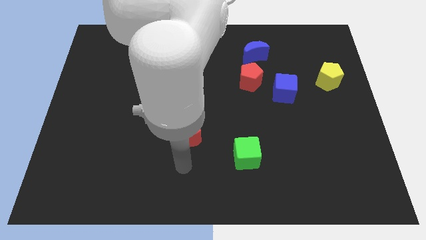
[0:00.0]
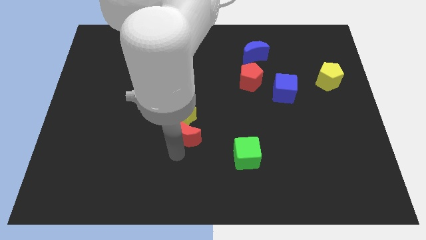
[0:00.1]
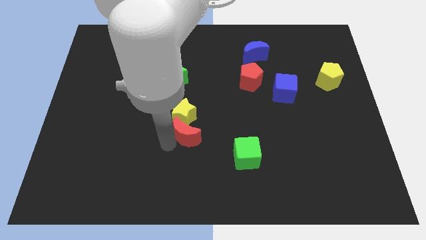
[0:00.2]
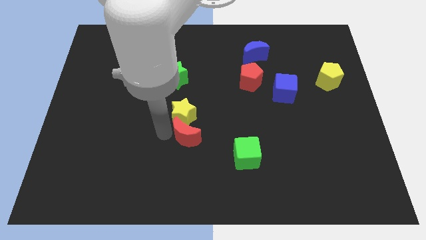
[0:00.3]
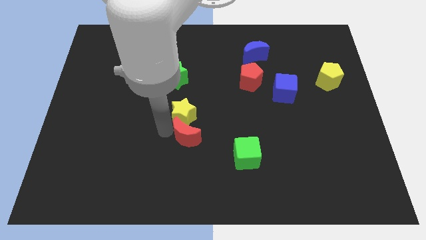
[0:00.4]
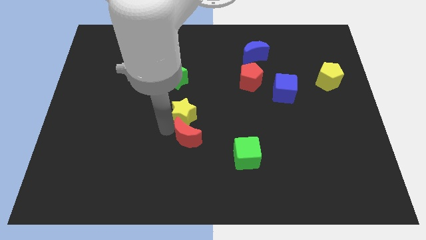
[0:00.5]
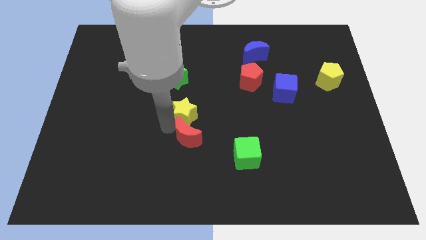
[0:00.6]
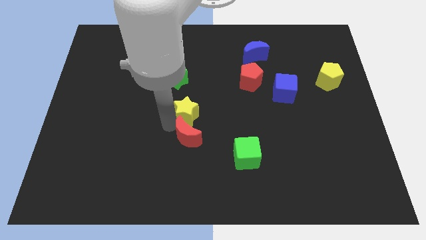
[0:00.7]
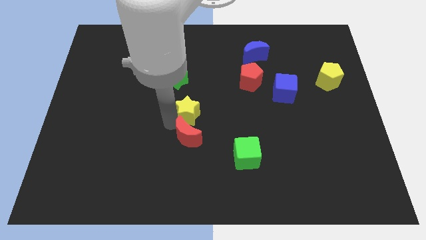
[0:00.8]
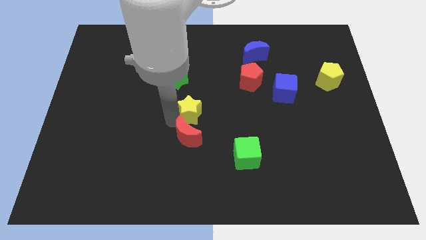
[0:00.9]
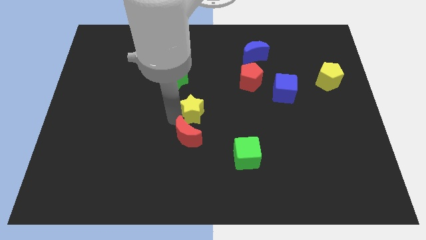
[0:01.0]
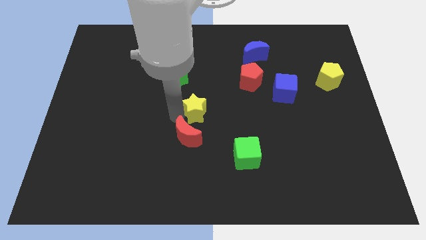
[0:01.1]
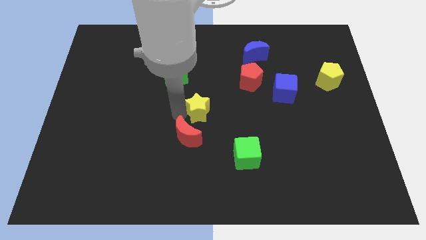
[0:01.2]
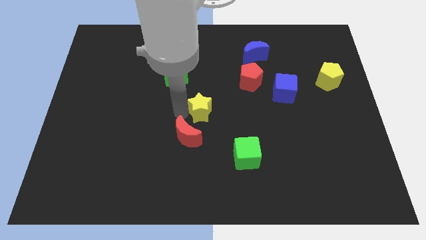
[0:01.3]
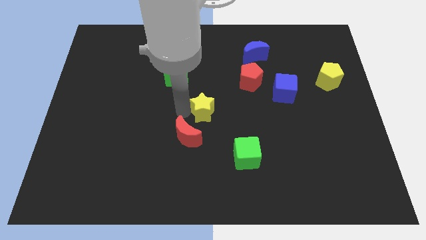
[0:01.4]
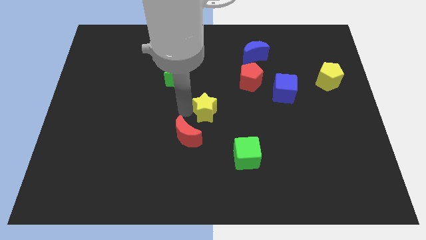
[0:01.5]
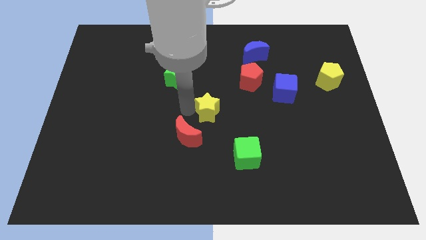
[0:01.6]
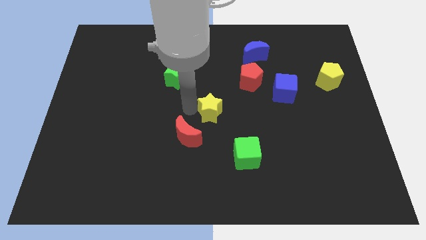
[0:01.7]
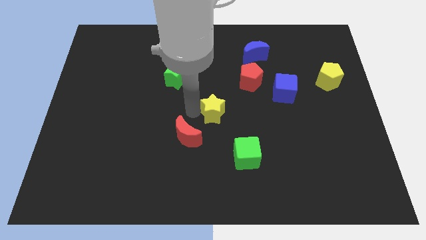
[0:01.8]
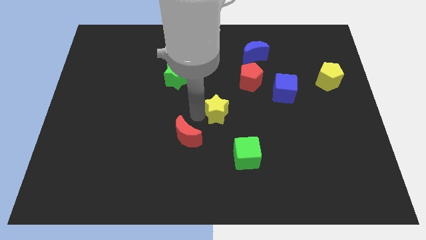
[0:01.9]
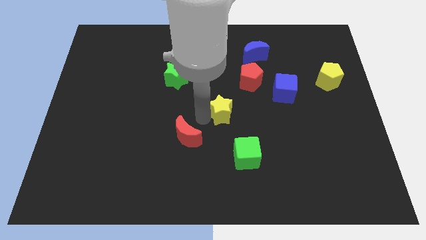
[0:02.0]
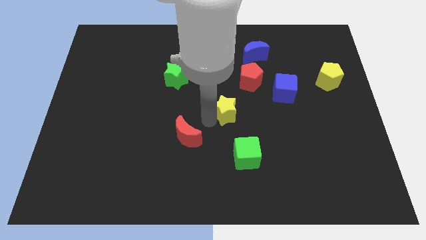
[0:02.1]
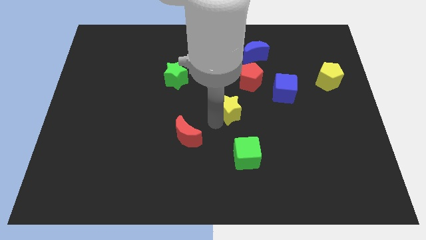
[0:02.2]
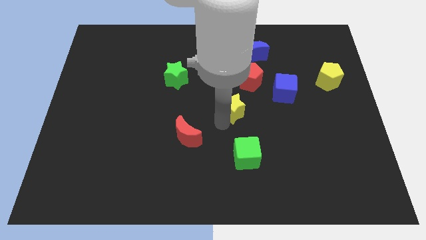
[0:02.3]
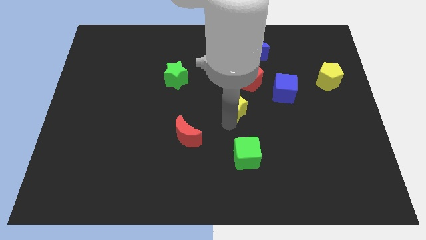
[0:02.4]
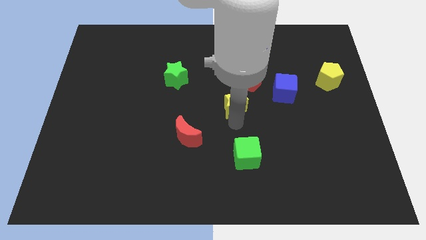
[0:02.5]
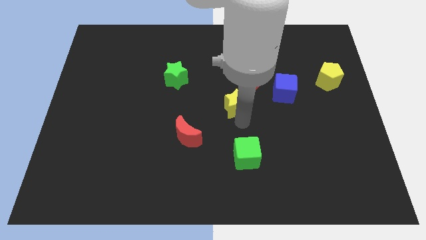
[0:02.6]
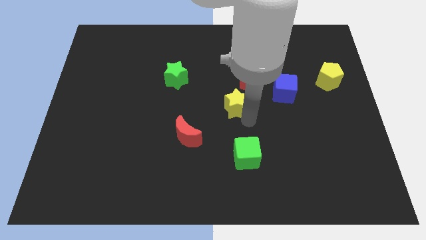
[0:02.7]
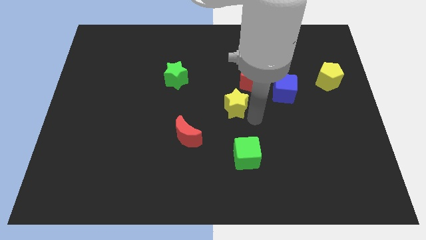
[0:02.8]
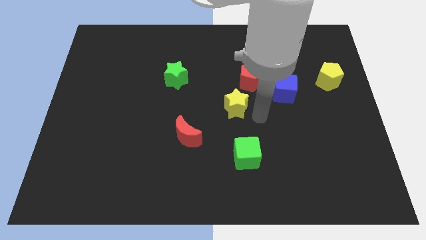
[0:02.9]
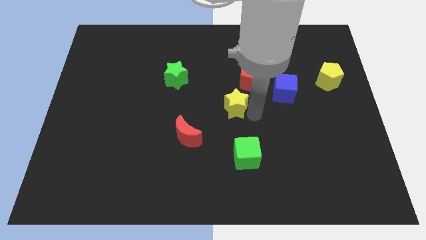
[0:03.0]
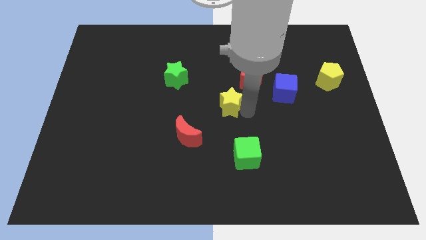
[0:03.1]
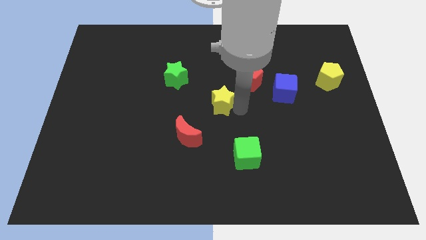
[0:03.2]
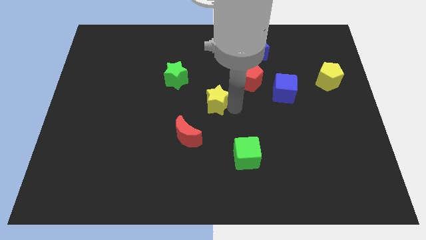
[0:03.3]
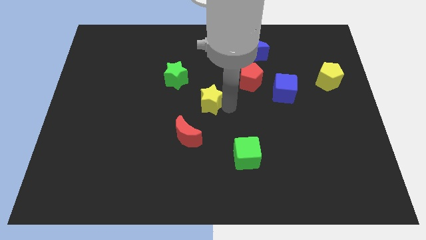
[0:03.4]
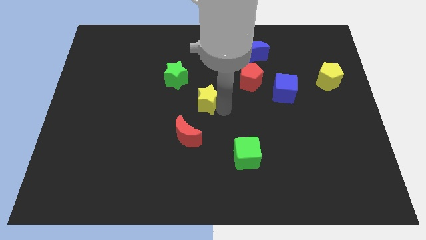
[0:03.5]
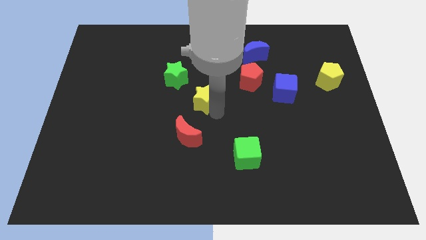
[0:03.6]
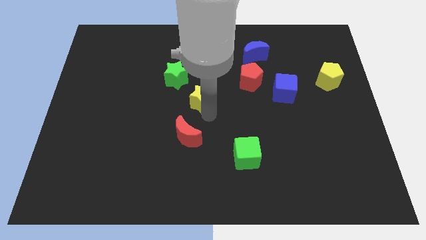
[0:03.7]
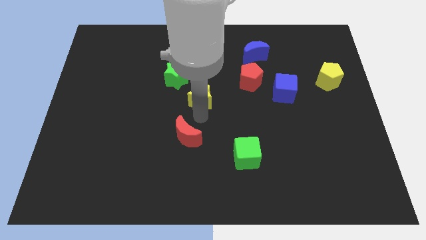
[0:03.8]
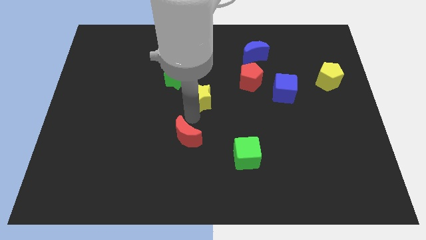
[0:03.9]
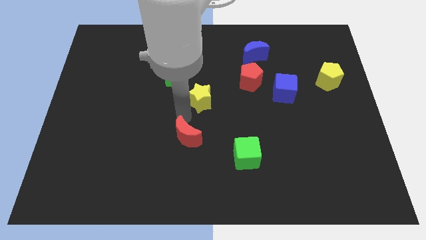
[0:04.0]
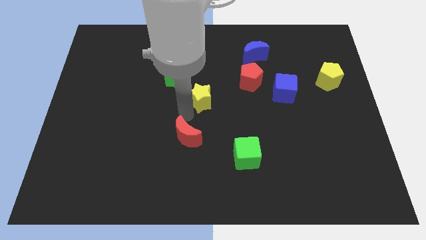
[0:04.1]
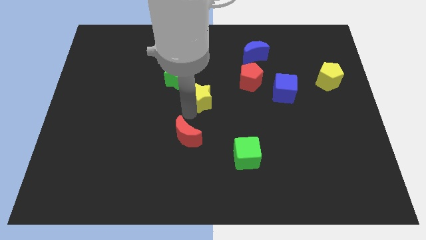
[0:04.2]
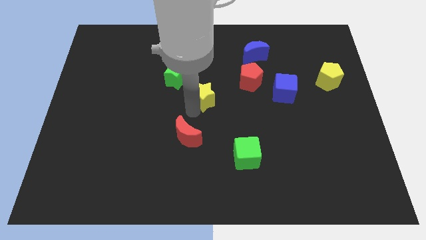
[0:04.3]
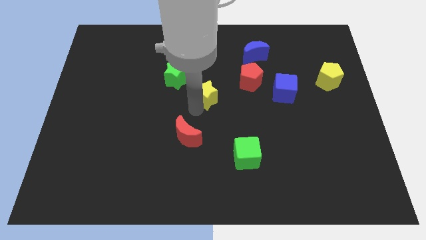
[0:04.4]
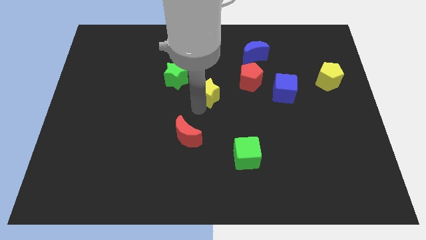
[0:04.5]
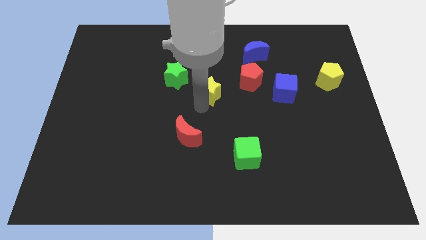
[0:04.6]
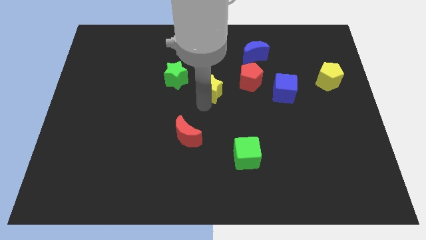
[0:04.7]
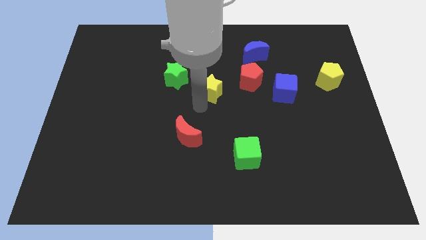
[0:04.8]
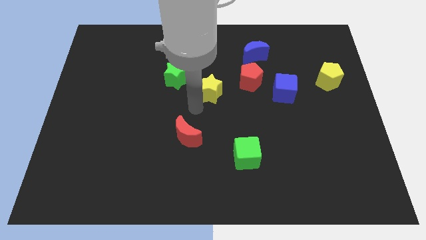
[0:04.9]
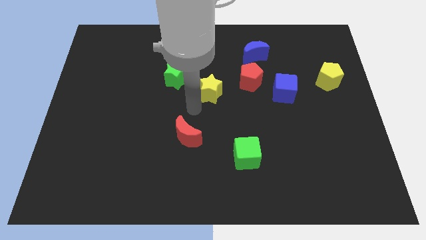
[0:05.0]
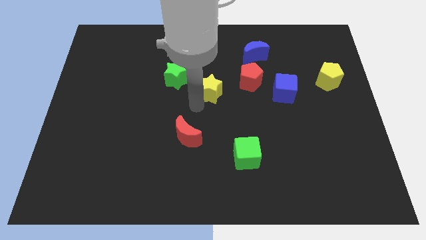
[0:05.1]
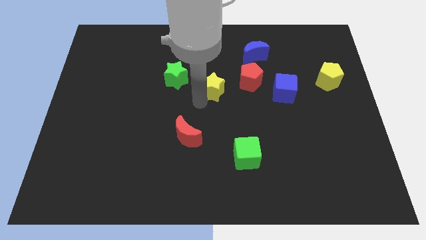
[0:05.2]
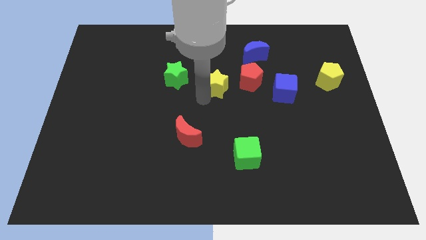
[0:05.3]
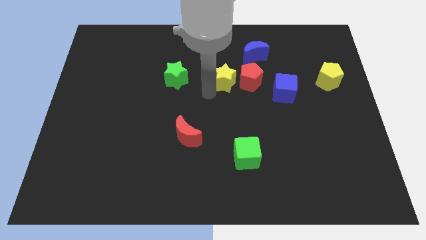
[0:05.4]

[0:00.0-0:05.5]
push the yellow star to the bottom left of the blue moon

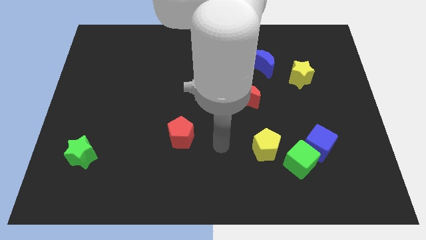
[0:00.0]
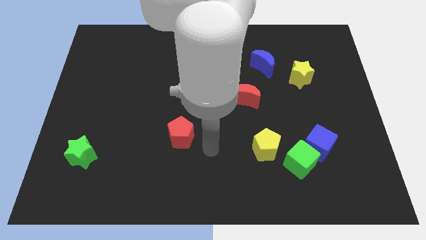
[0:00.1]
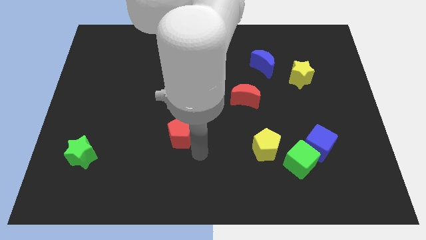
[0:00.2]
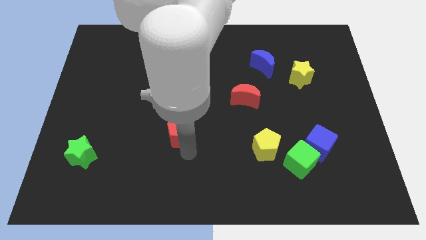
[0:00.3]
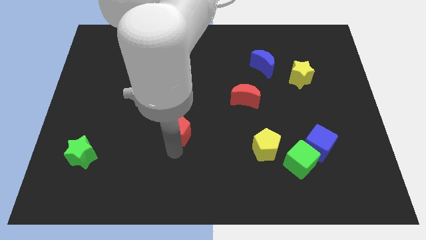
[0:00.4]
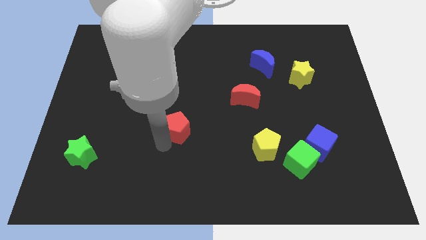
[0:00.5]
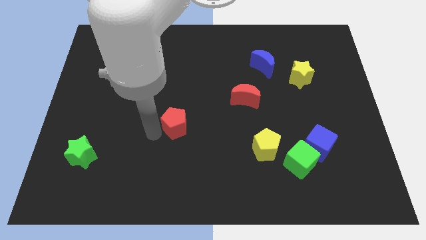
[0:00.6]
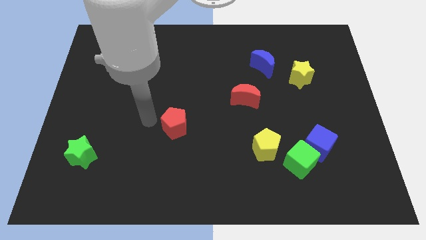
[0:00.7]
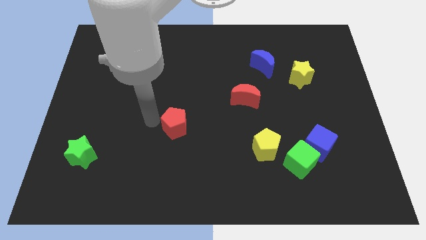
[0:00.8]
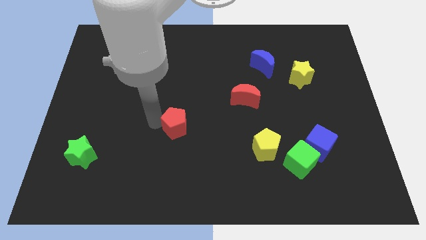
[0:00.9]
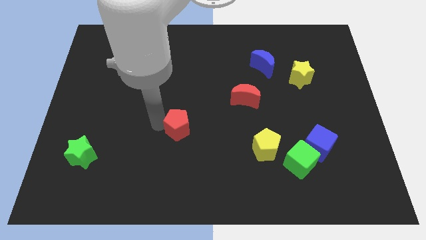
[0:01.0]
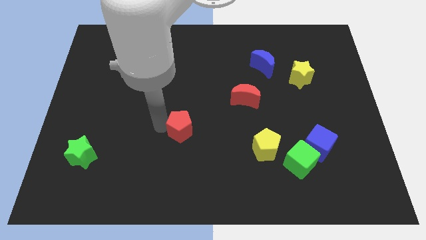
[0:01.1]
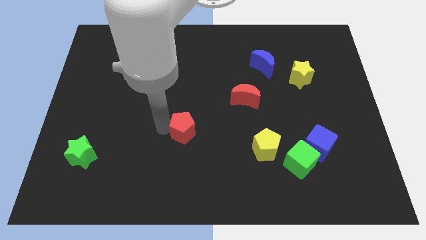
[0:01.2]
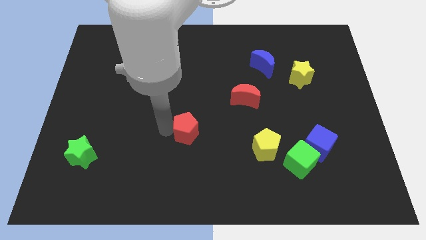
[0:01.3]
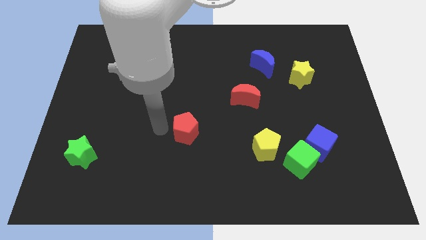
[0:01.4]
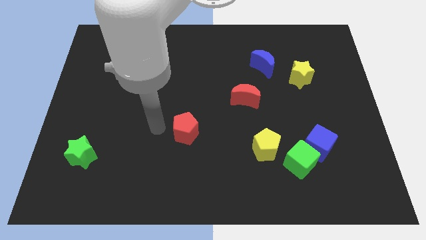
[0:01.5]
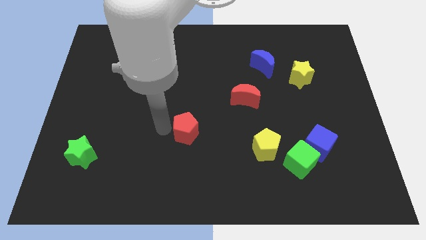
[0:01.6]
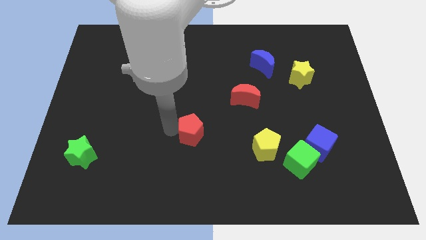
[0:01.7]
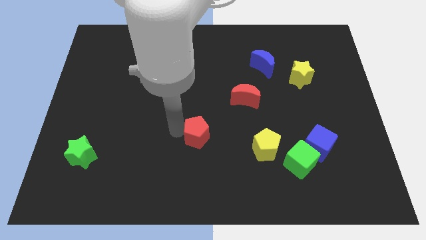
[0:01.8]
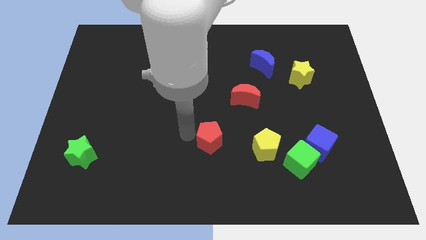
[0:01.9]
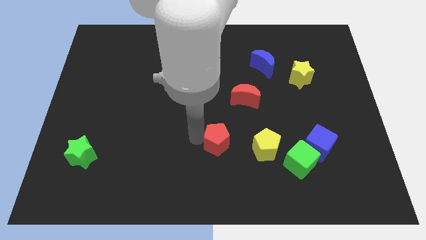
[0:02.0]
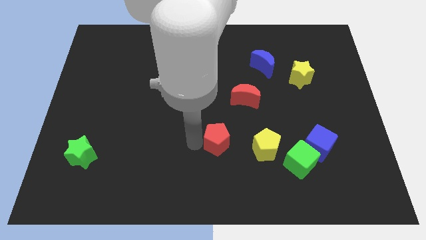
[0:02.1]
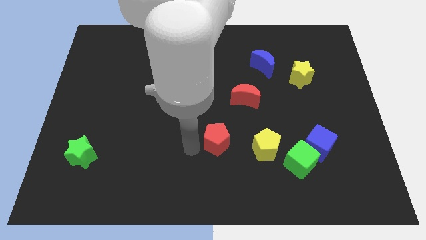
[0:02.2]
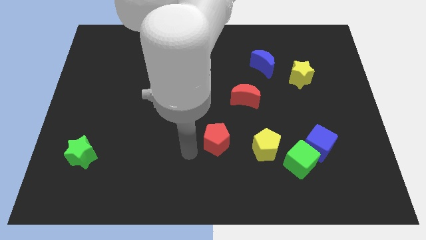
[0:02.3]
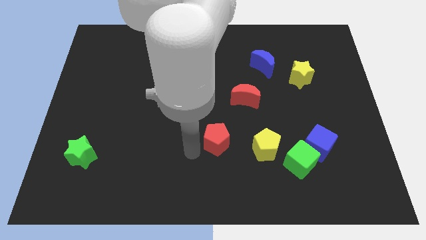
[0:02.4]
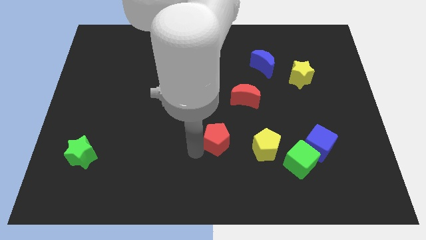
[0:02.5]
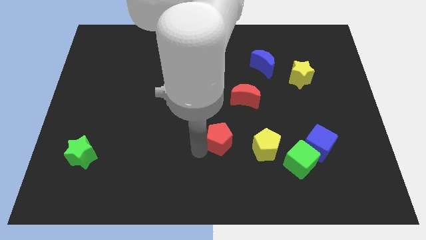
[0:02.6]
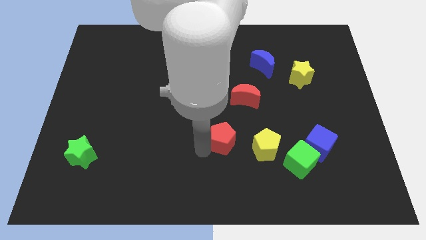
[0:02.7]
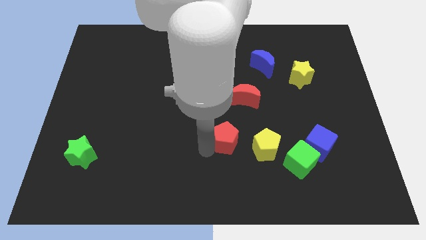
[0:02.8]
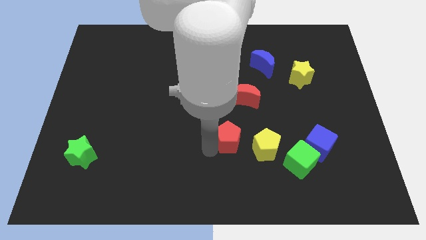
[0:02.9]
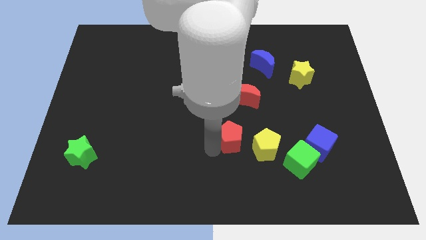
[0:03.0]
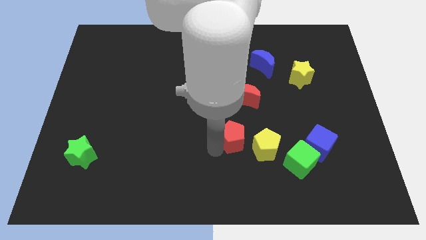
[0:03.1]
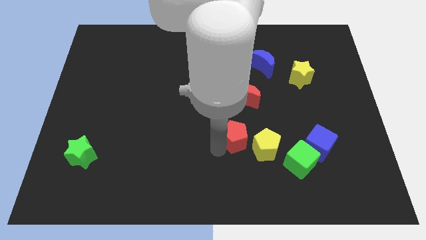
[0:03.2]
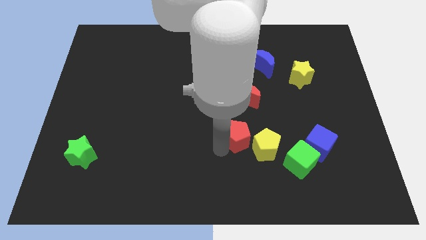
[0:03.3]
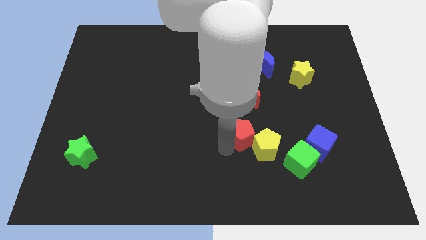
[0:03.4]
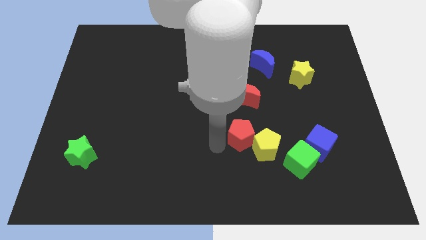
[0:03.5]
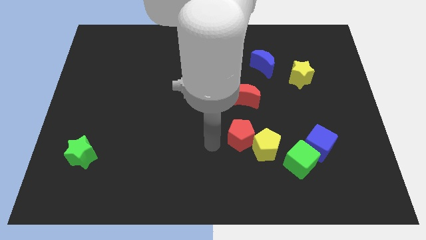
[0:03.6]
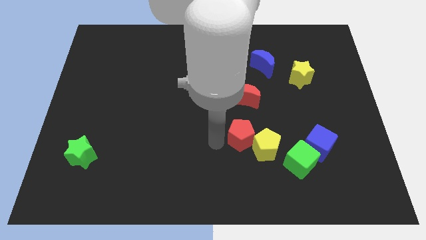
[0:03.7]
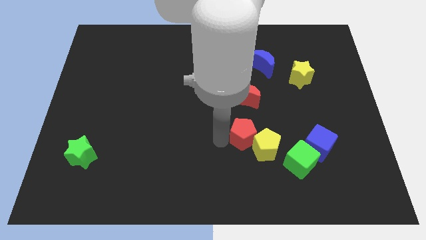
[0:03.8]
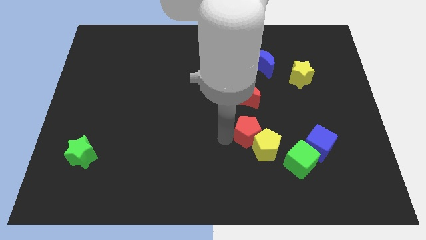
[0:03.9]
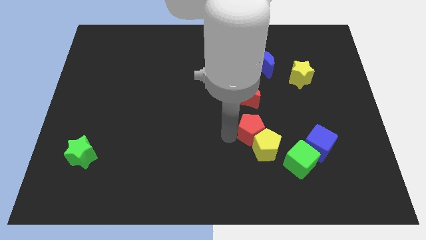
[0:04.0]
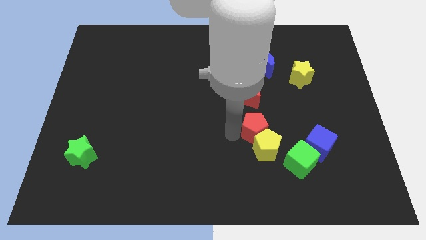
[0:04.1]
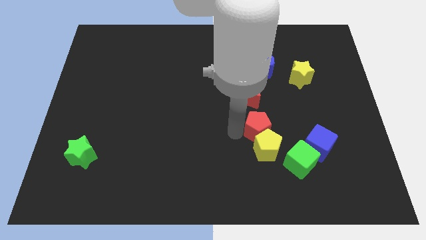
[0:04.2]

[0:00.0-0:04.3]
push the red pentagon to the top right of the yellow pentagon
